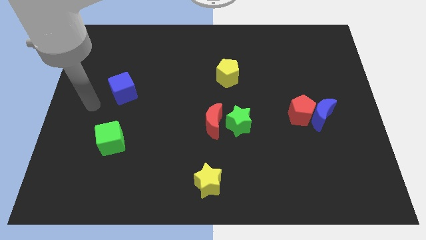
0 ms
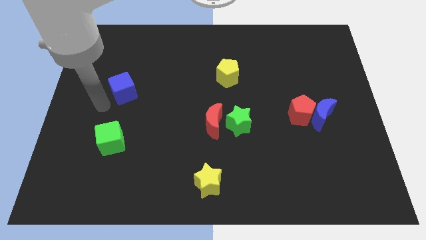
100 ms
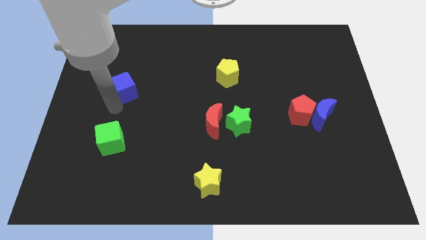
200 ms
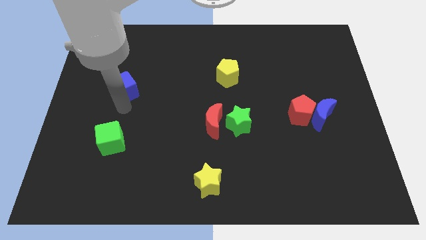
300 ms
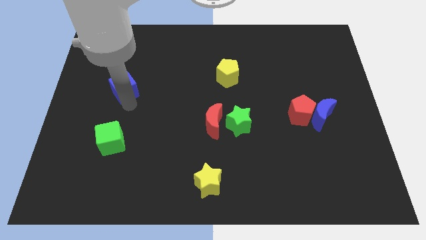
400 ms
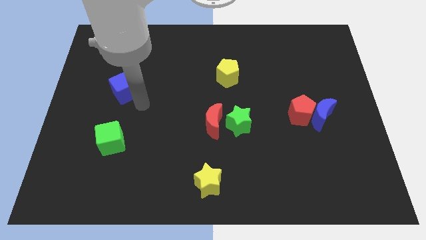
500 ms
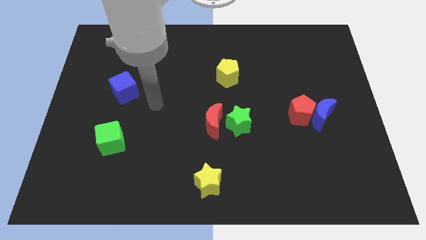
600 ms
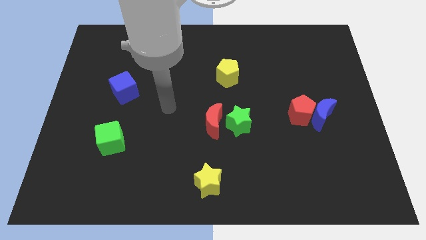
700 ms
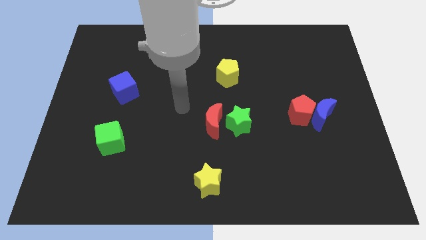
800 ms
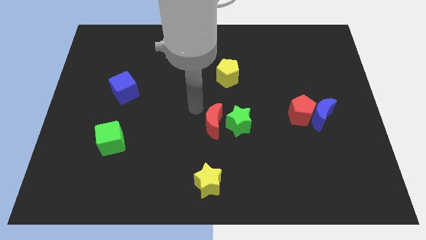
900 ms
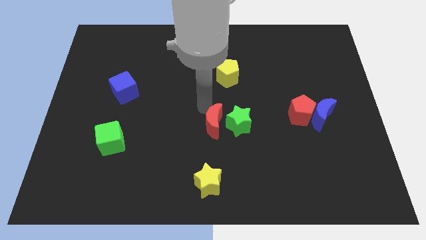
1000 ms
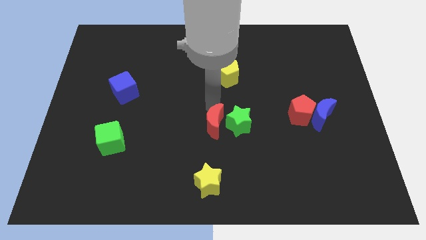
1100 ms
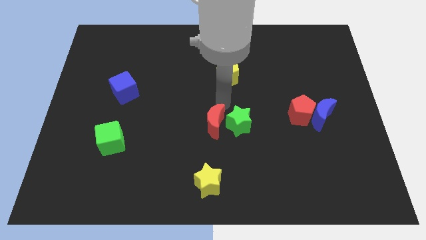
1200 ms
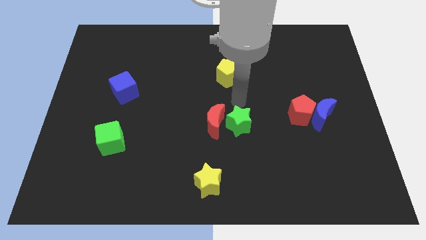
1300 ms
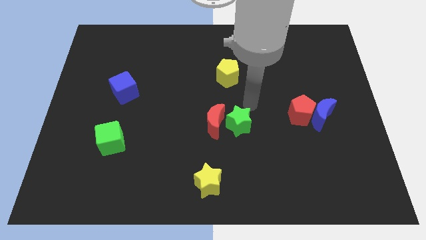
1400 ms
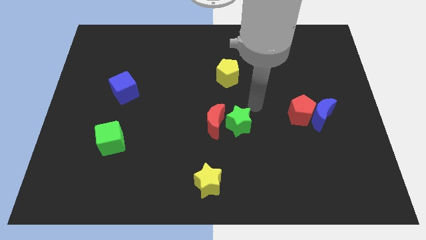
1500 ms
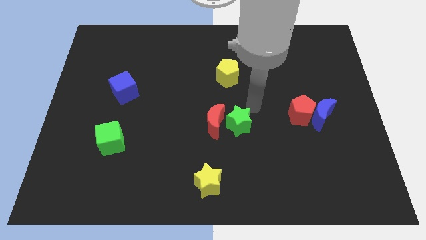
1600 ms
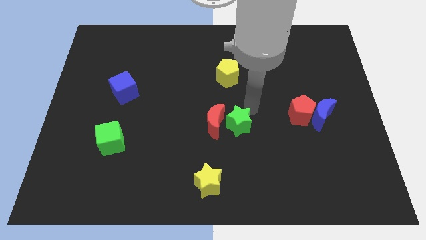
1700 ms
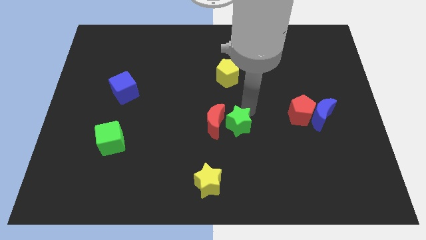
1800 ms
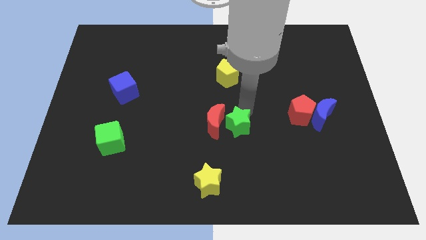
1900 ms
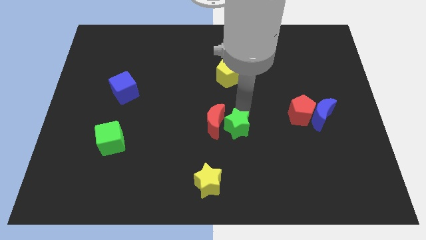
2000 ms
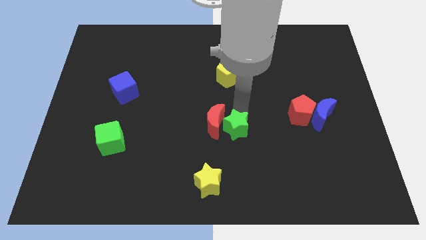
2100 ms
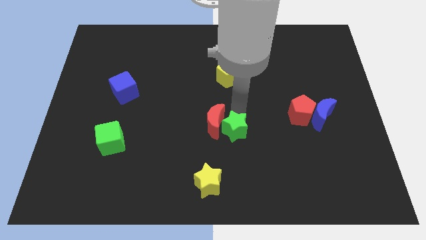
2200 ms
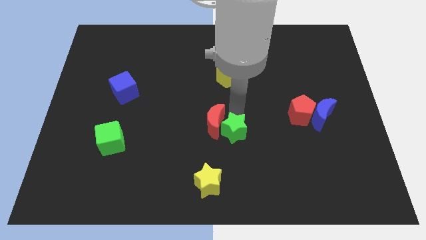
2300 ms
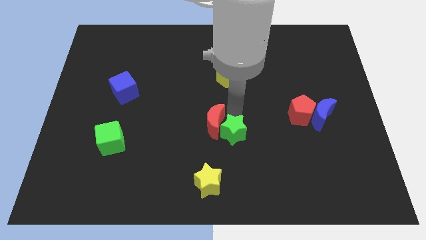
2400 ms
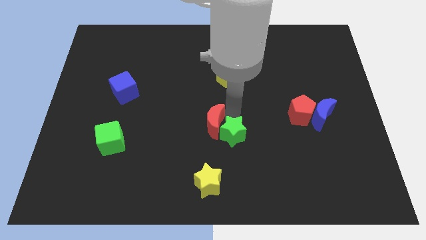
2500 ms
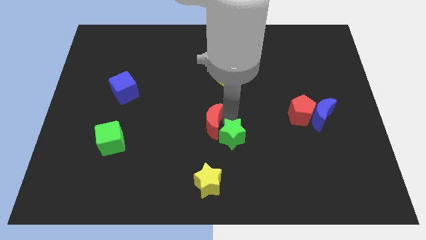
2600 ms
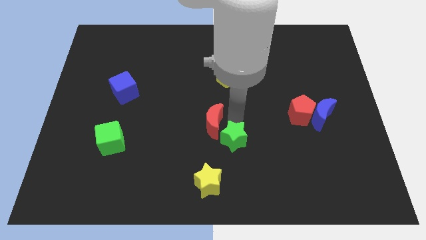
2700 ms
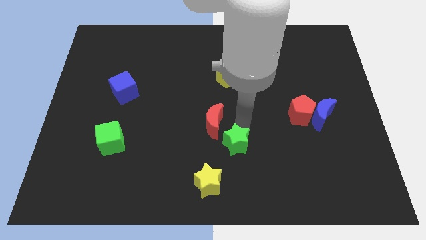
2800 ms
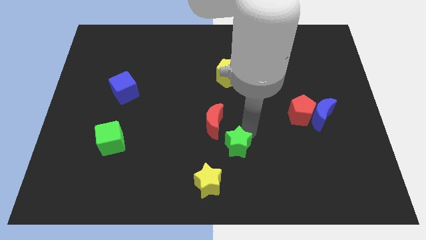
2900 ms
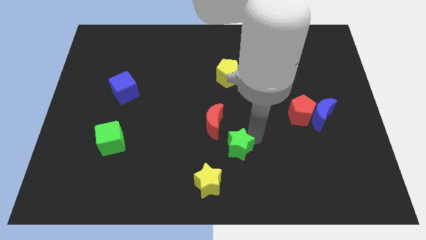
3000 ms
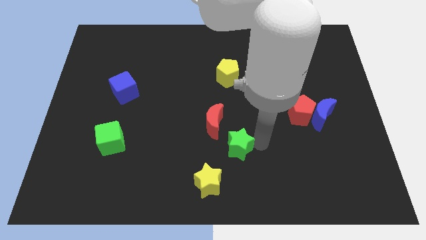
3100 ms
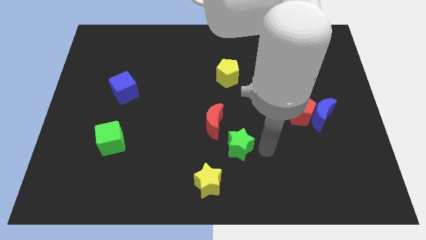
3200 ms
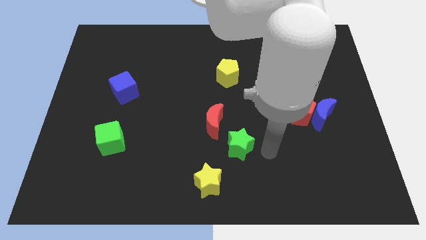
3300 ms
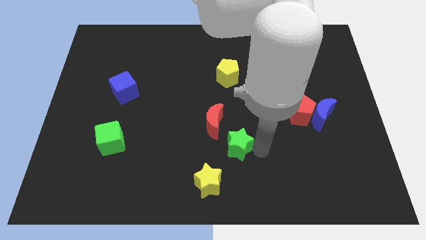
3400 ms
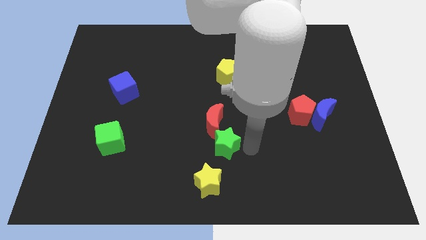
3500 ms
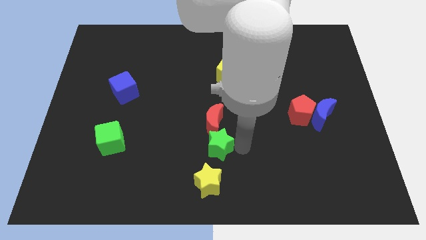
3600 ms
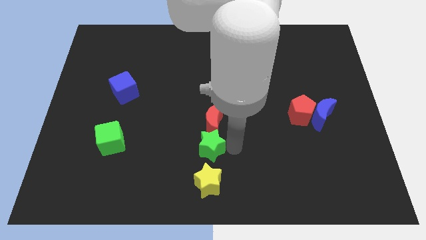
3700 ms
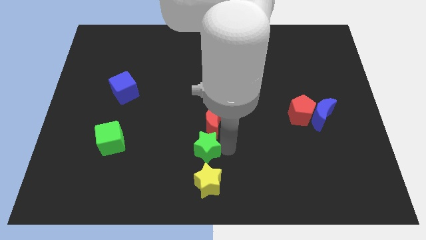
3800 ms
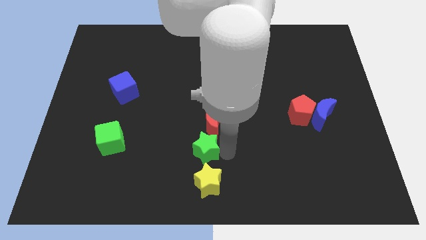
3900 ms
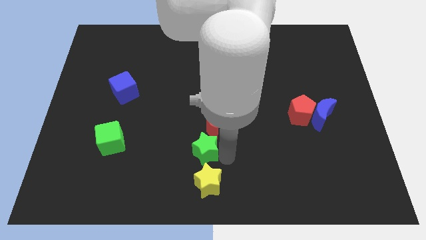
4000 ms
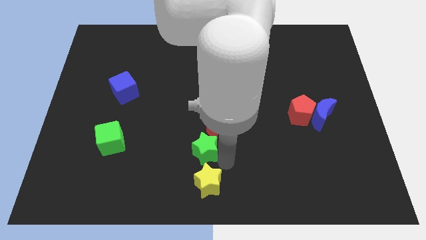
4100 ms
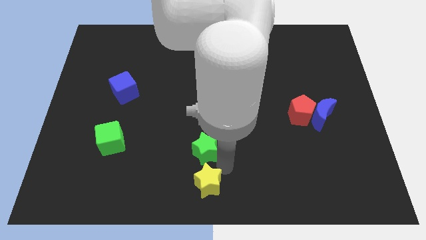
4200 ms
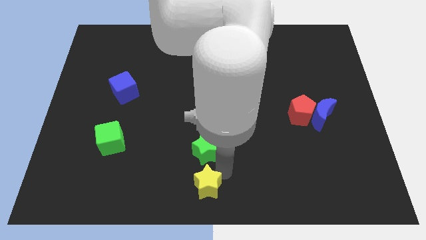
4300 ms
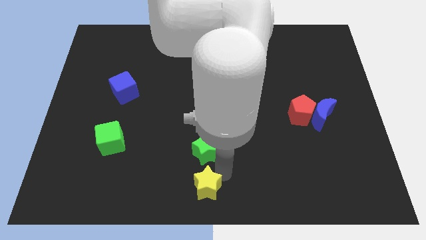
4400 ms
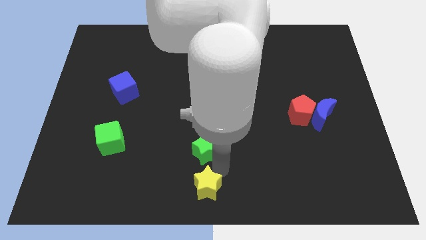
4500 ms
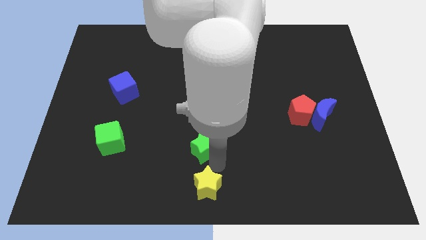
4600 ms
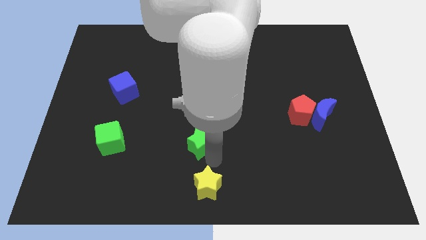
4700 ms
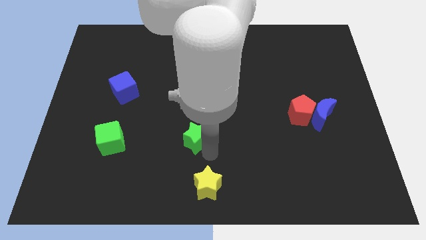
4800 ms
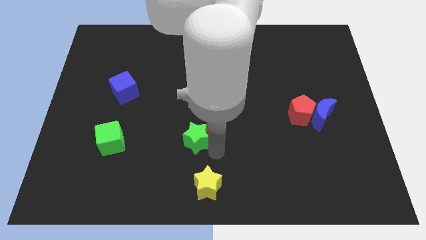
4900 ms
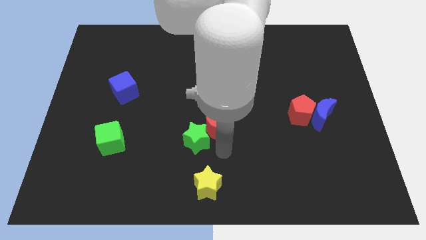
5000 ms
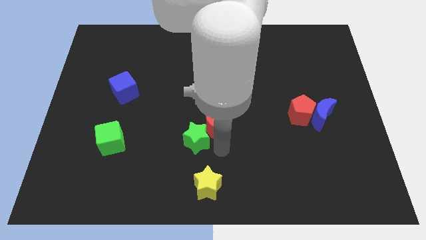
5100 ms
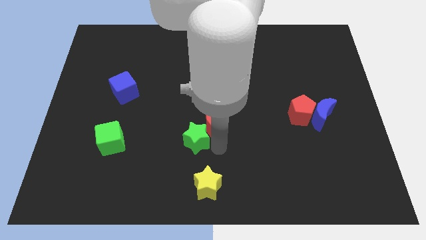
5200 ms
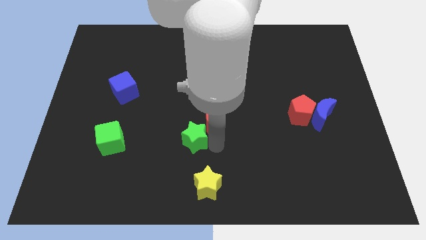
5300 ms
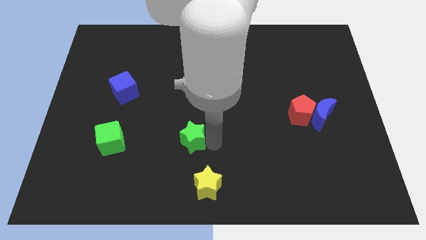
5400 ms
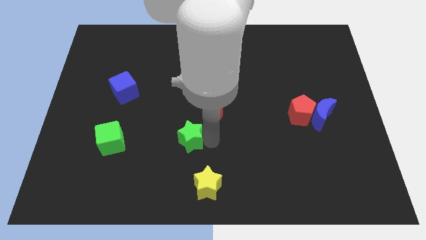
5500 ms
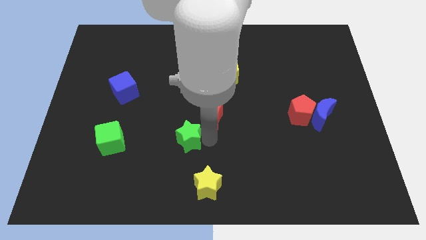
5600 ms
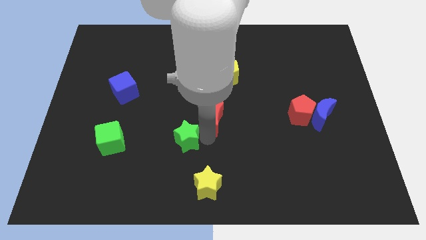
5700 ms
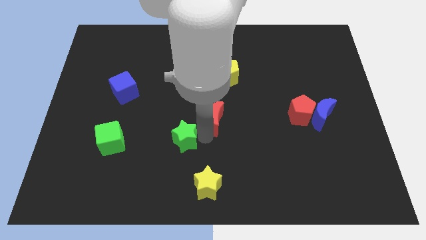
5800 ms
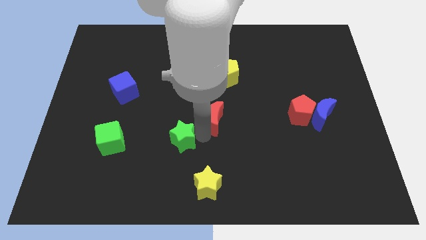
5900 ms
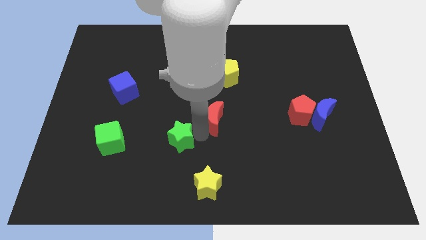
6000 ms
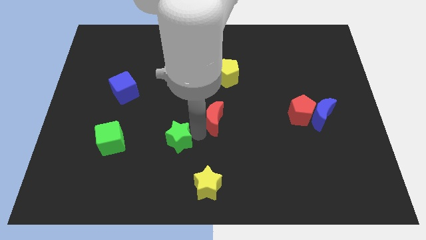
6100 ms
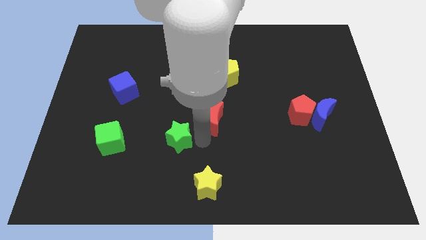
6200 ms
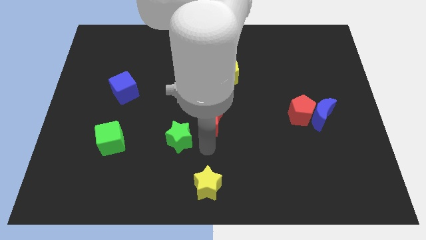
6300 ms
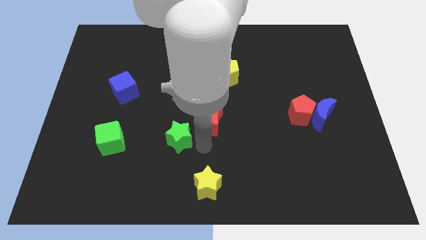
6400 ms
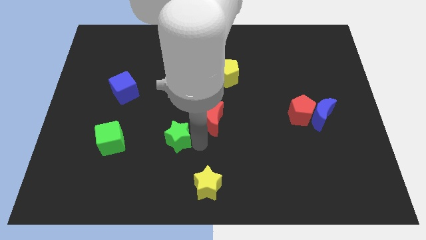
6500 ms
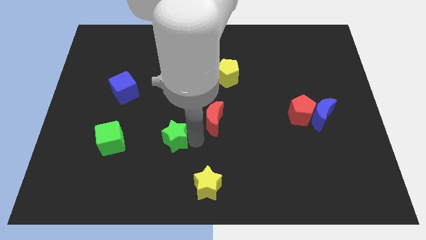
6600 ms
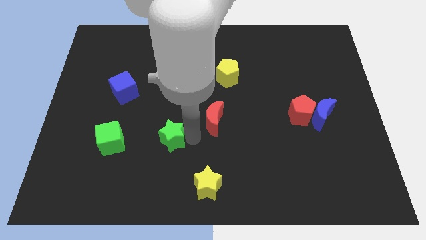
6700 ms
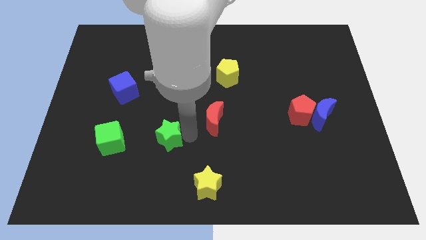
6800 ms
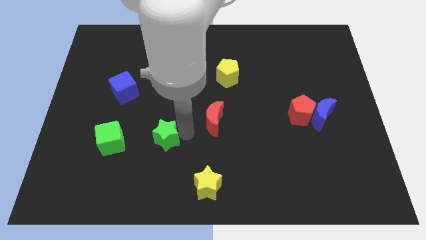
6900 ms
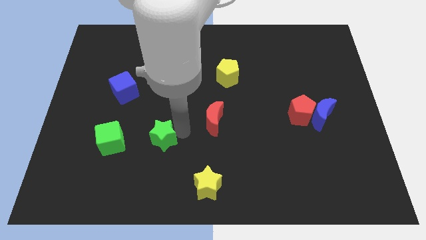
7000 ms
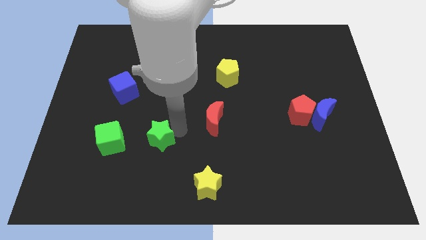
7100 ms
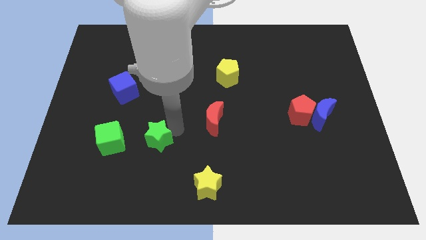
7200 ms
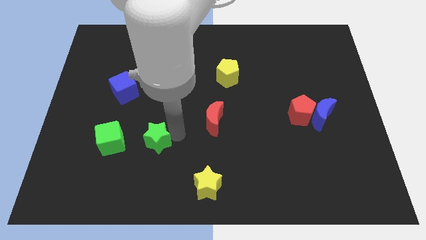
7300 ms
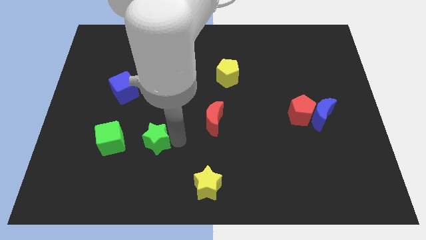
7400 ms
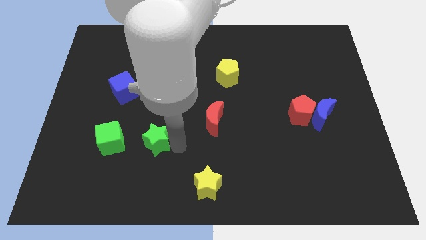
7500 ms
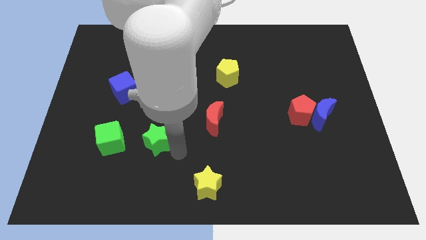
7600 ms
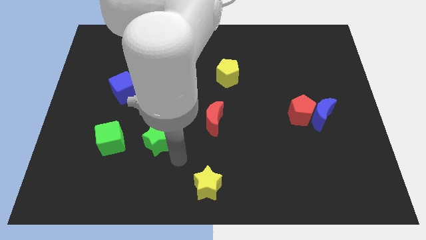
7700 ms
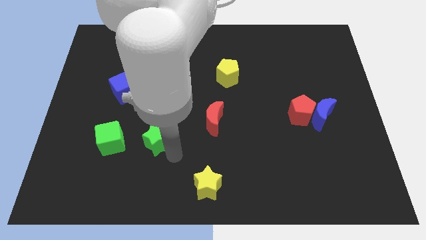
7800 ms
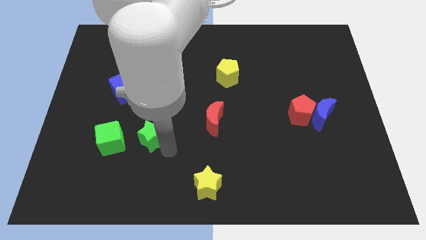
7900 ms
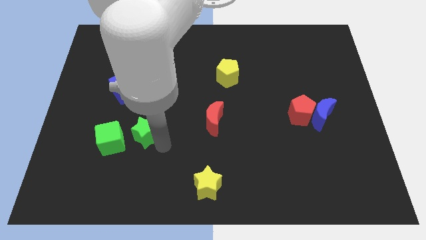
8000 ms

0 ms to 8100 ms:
move the green star diagonally up and to the right of the green cube
